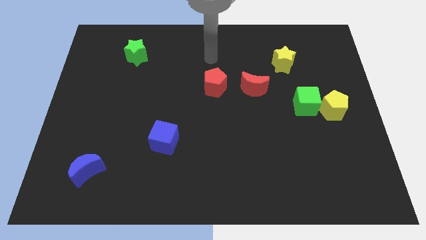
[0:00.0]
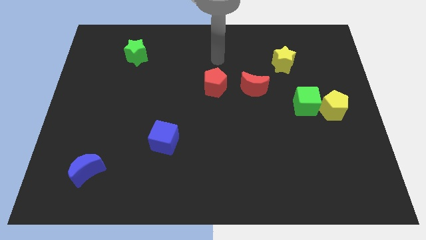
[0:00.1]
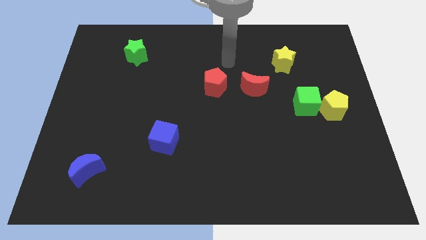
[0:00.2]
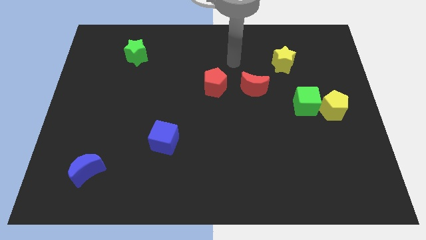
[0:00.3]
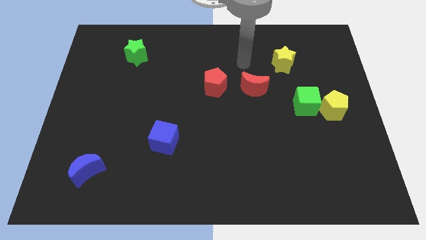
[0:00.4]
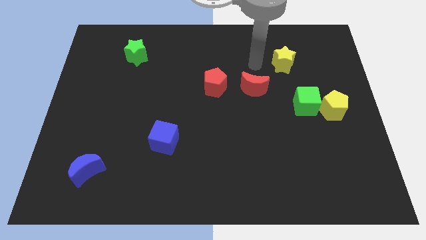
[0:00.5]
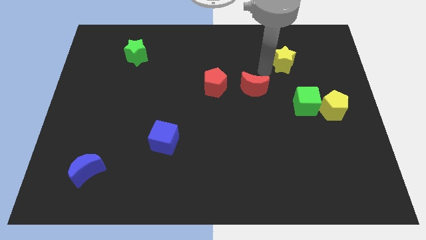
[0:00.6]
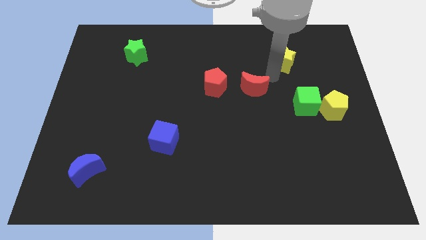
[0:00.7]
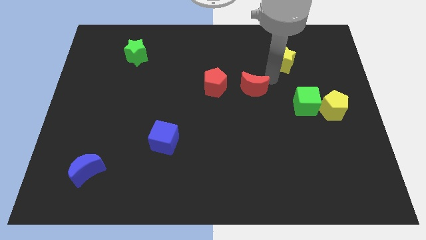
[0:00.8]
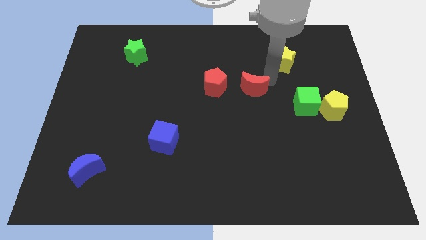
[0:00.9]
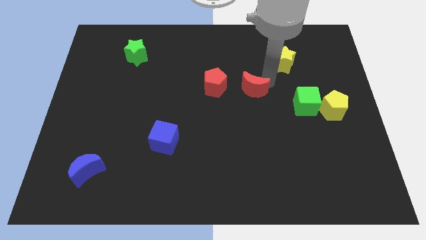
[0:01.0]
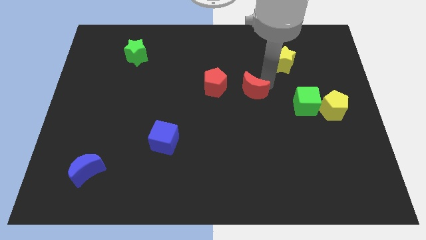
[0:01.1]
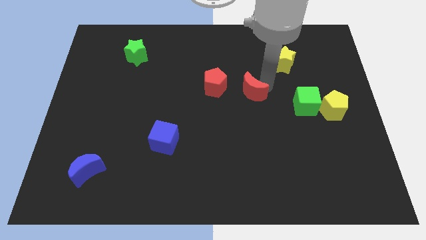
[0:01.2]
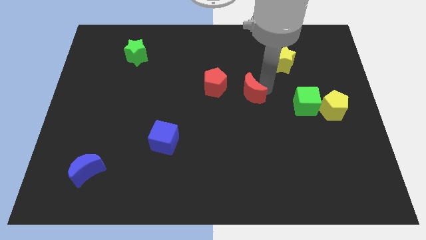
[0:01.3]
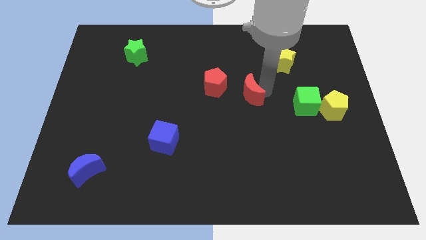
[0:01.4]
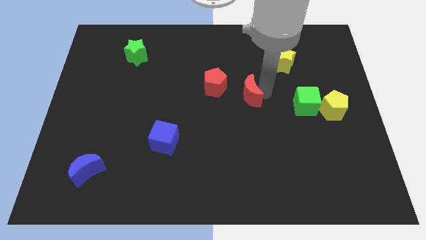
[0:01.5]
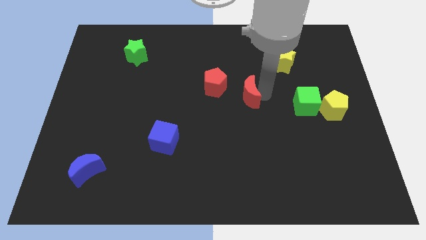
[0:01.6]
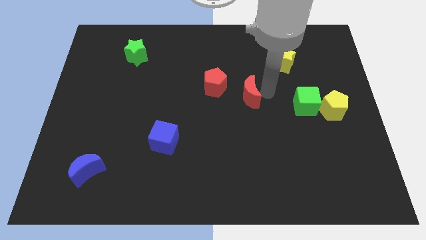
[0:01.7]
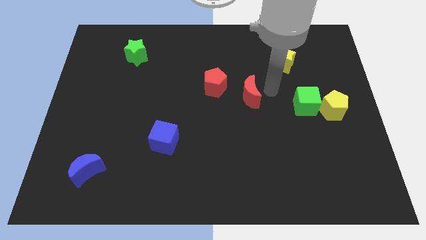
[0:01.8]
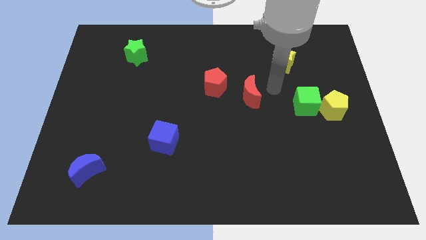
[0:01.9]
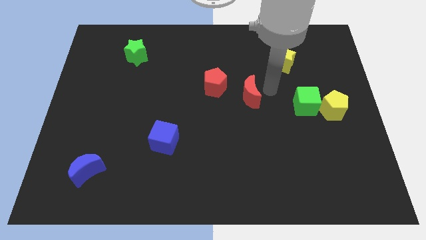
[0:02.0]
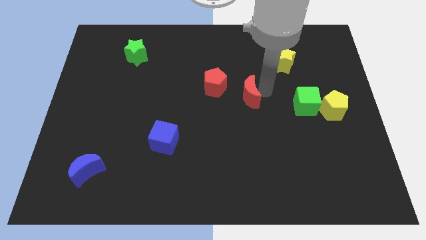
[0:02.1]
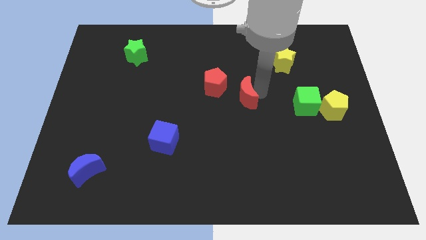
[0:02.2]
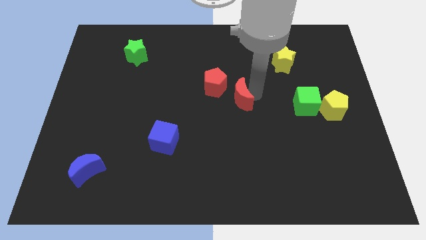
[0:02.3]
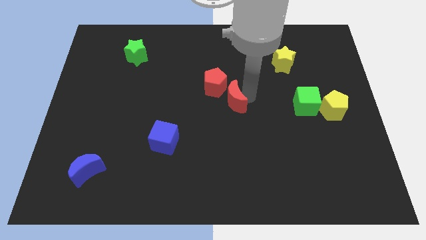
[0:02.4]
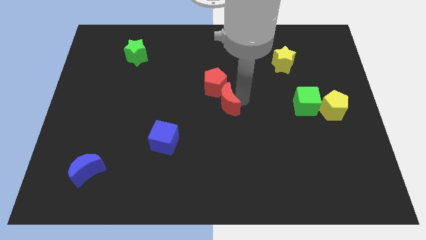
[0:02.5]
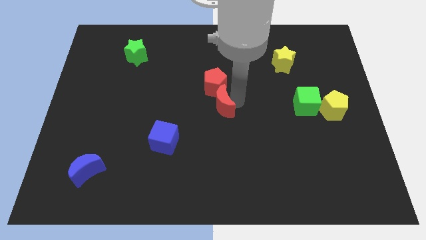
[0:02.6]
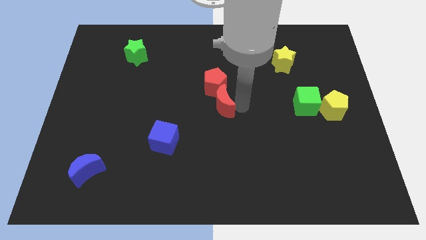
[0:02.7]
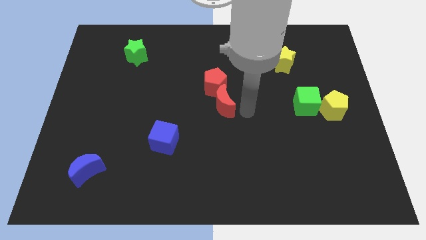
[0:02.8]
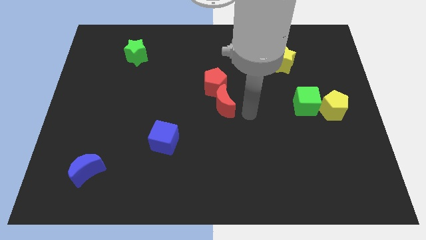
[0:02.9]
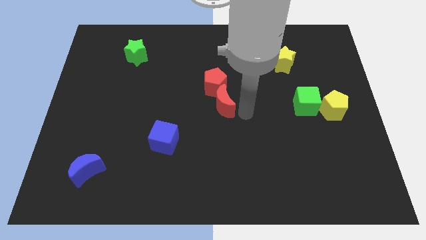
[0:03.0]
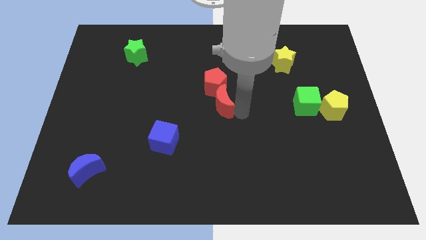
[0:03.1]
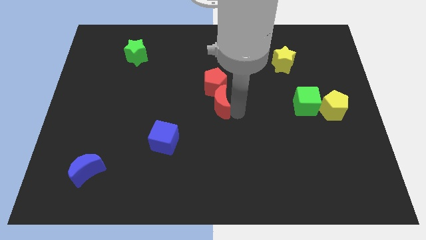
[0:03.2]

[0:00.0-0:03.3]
push the red moon a bit left

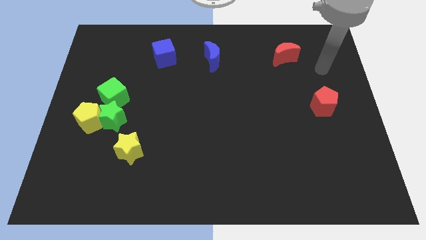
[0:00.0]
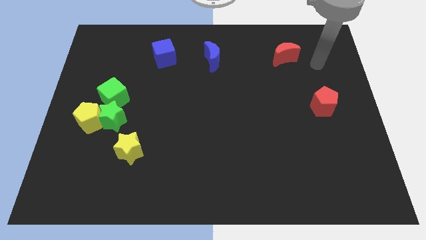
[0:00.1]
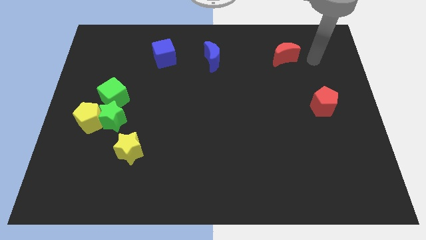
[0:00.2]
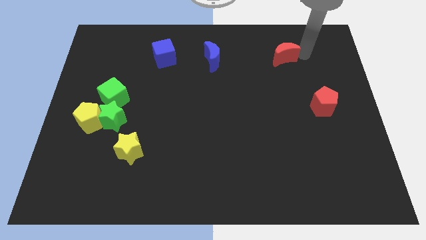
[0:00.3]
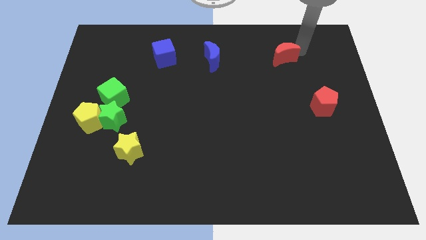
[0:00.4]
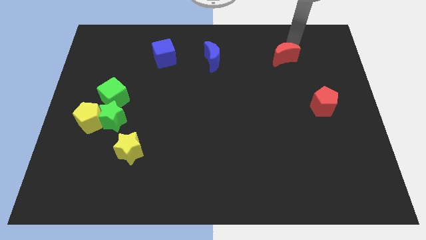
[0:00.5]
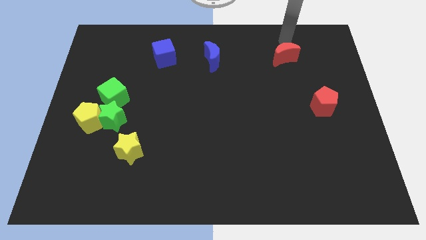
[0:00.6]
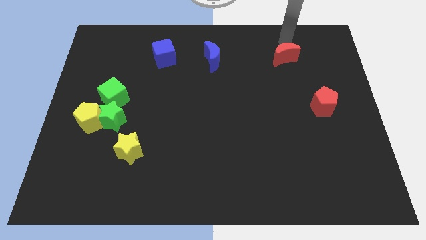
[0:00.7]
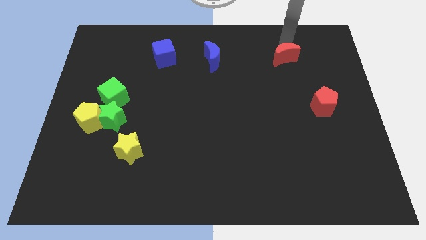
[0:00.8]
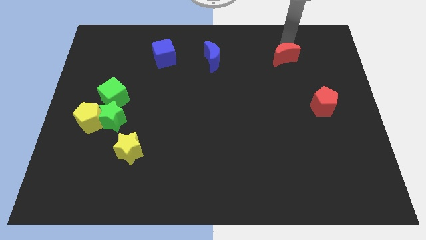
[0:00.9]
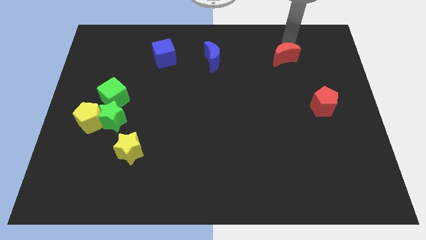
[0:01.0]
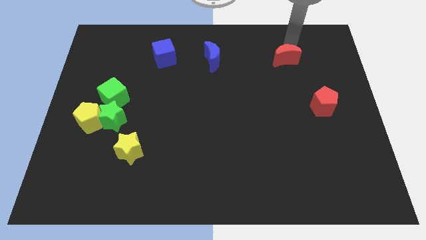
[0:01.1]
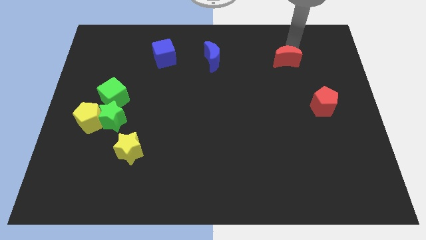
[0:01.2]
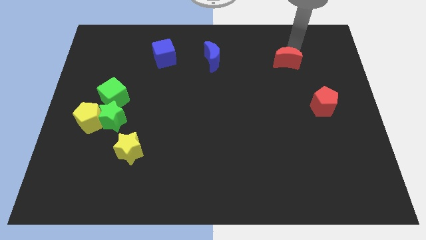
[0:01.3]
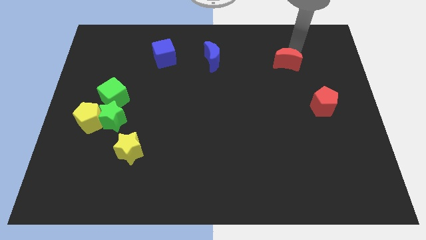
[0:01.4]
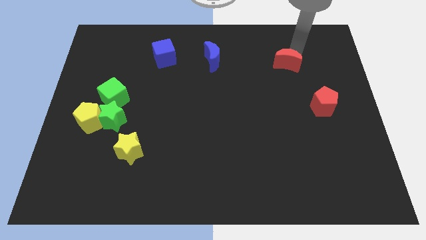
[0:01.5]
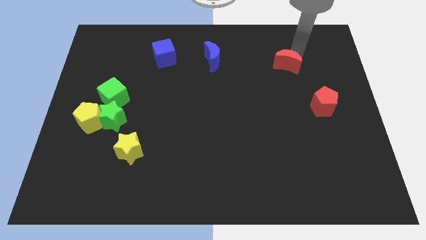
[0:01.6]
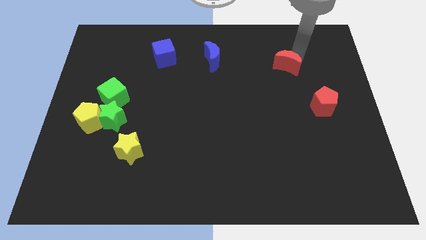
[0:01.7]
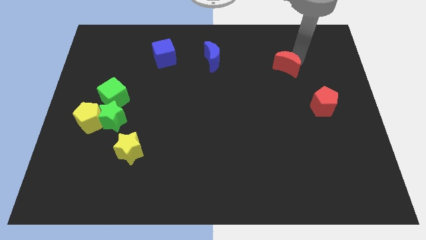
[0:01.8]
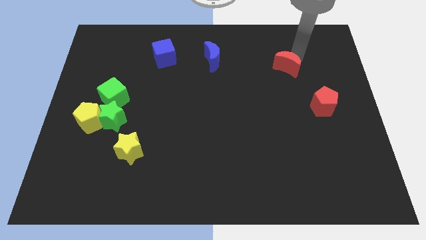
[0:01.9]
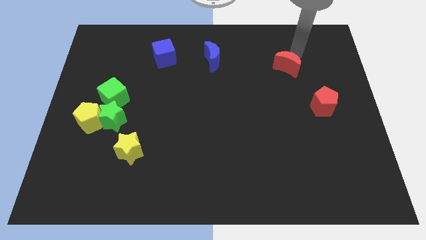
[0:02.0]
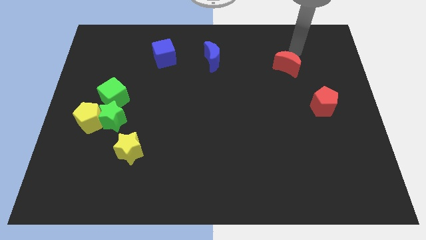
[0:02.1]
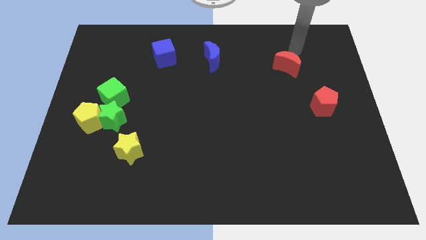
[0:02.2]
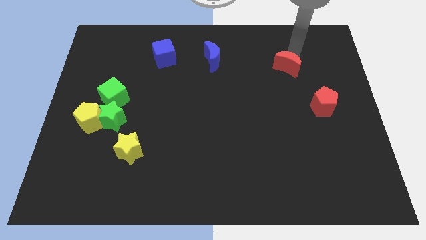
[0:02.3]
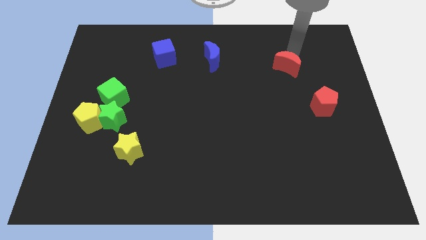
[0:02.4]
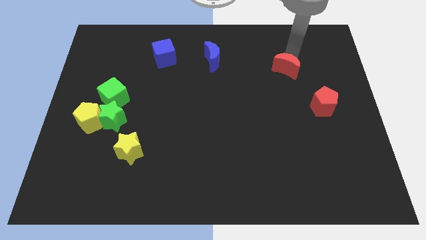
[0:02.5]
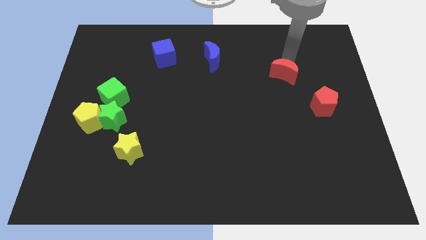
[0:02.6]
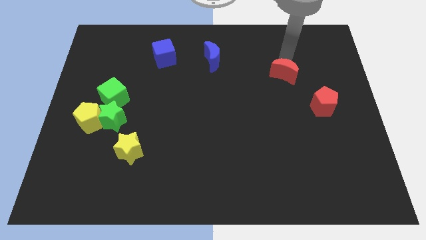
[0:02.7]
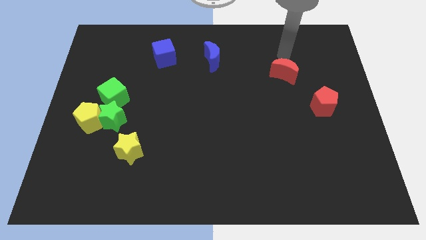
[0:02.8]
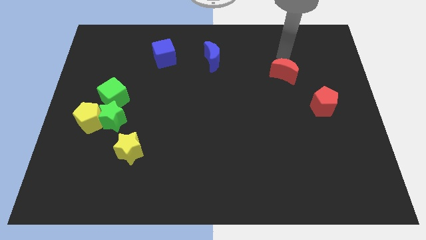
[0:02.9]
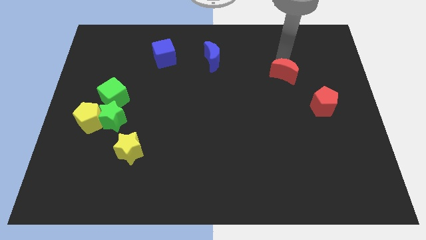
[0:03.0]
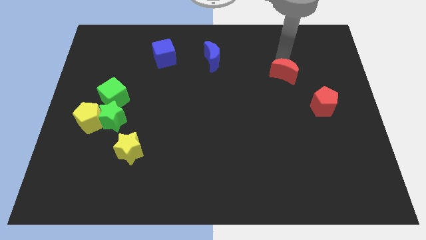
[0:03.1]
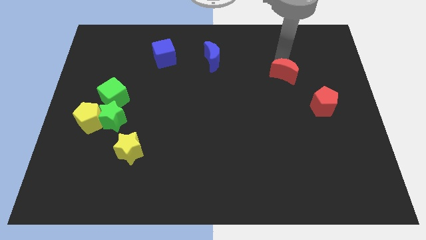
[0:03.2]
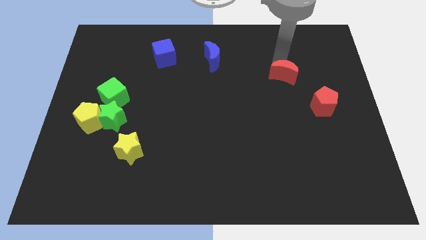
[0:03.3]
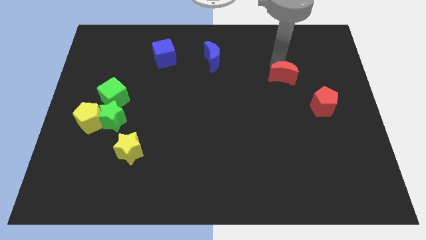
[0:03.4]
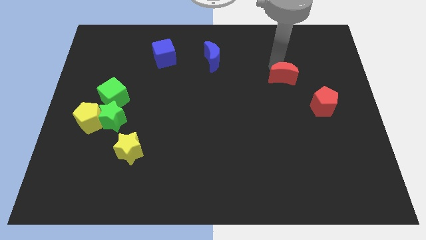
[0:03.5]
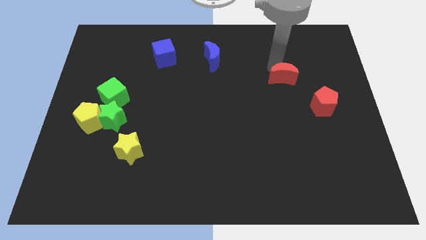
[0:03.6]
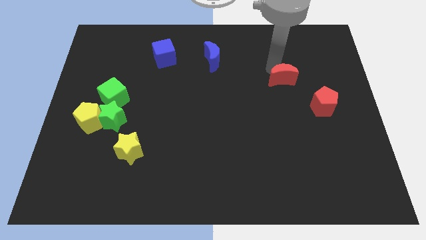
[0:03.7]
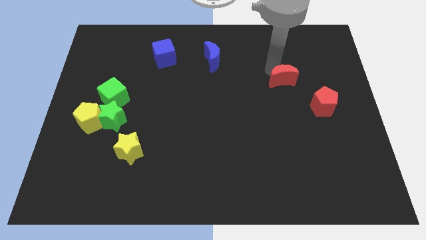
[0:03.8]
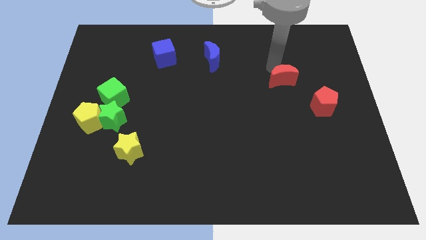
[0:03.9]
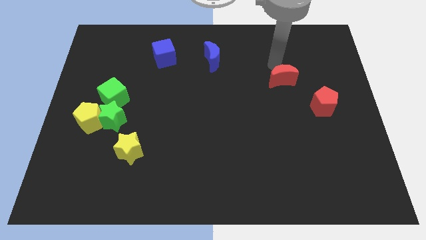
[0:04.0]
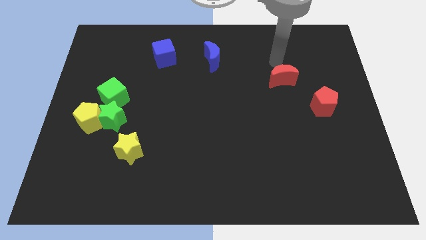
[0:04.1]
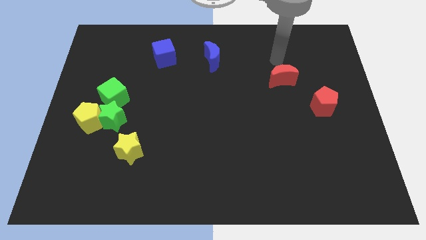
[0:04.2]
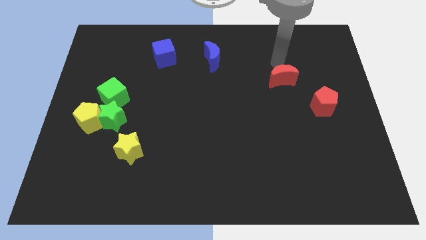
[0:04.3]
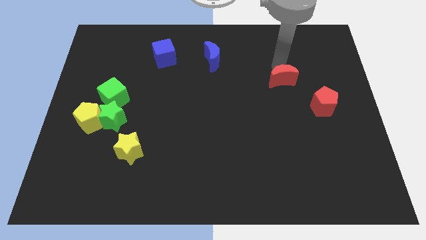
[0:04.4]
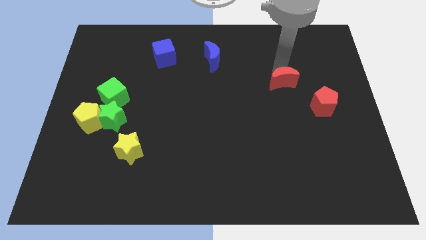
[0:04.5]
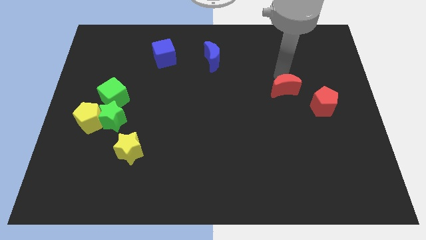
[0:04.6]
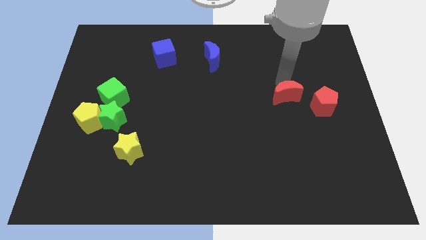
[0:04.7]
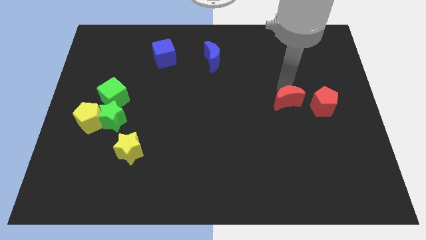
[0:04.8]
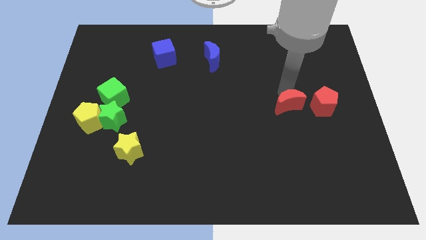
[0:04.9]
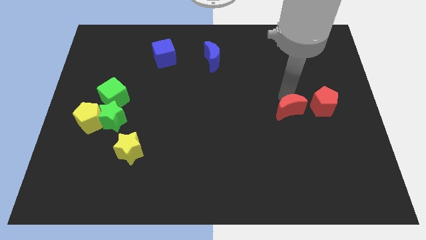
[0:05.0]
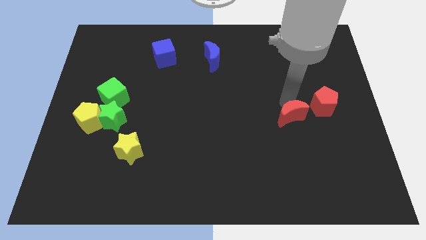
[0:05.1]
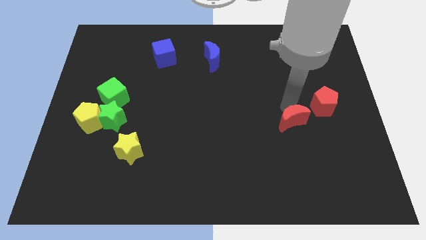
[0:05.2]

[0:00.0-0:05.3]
slide the red moon down
